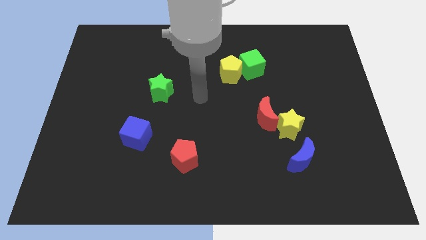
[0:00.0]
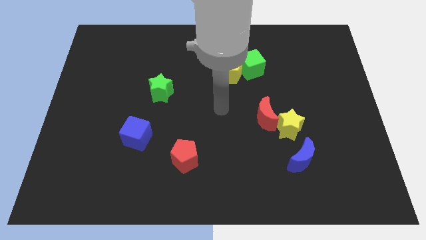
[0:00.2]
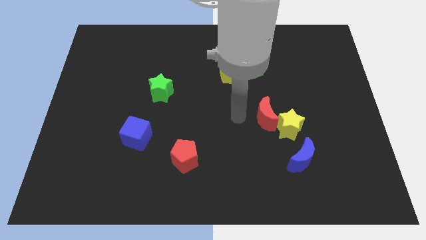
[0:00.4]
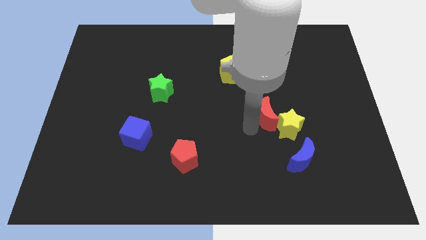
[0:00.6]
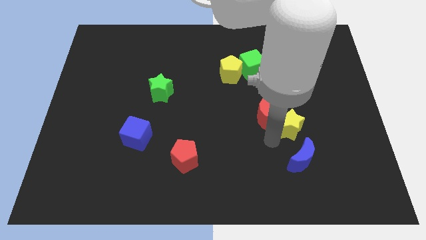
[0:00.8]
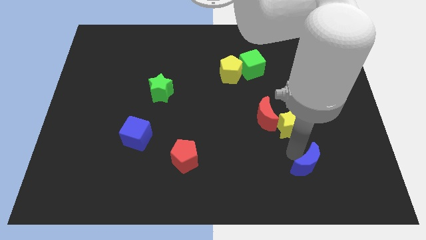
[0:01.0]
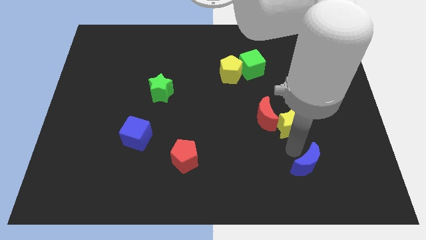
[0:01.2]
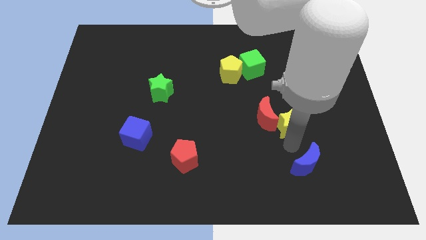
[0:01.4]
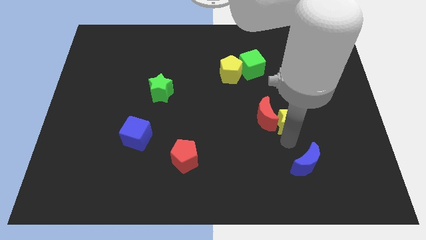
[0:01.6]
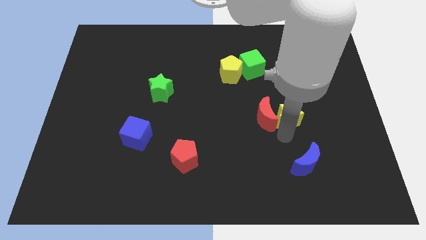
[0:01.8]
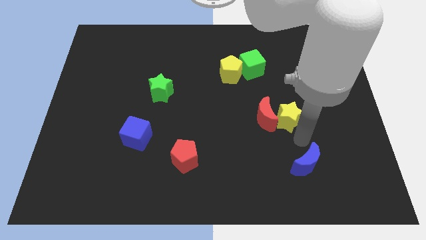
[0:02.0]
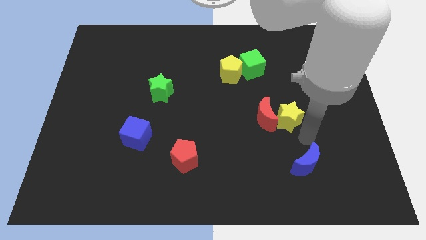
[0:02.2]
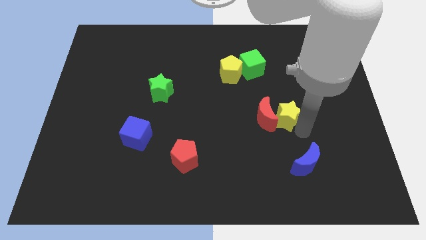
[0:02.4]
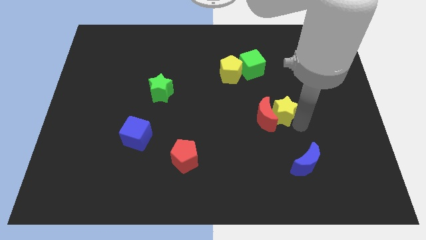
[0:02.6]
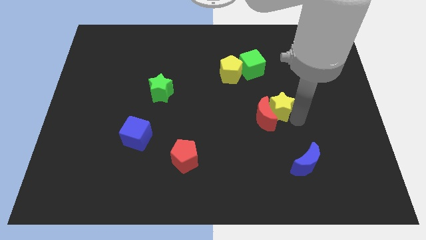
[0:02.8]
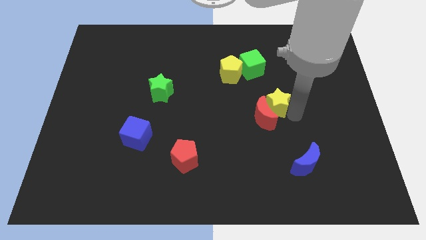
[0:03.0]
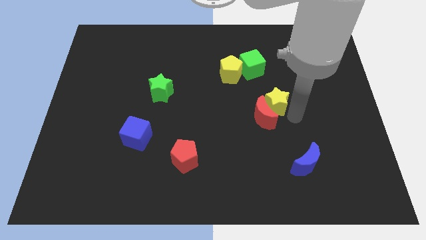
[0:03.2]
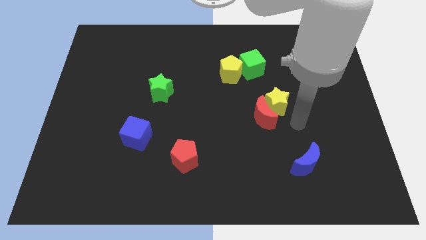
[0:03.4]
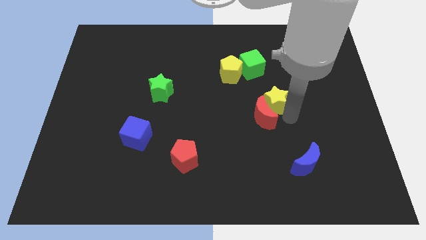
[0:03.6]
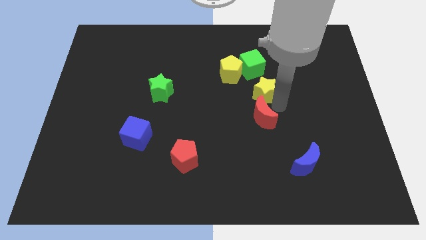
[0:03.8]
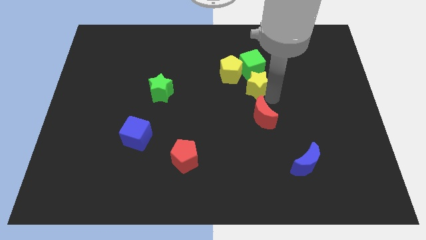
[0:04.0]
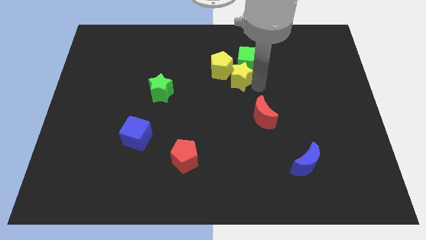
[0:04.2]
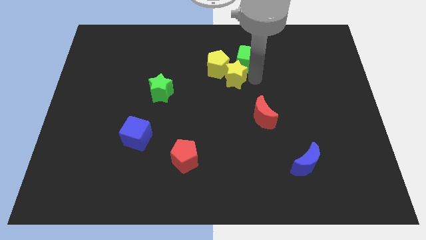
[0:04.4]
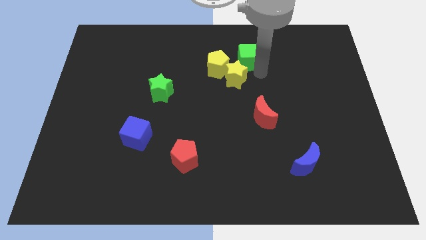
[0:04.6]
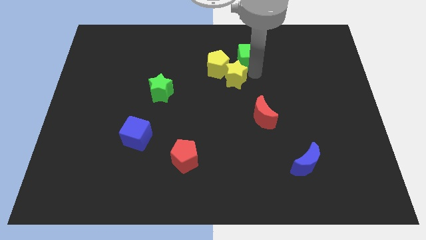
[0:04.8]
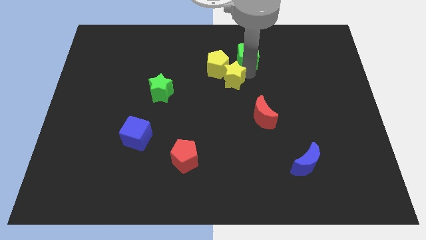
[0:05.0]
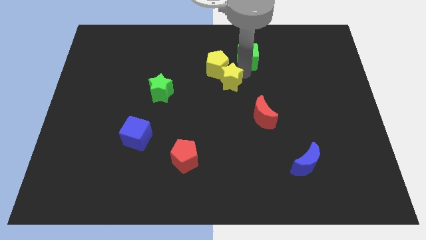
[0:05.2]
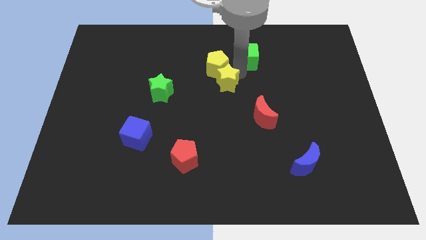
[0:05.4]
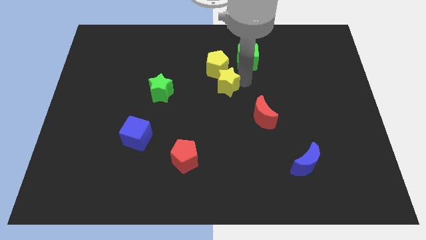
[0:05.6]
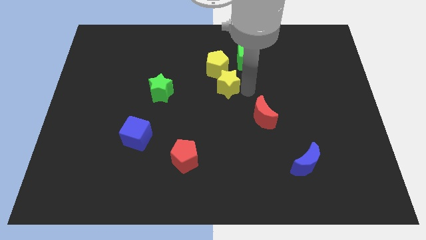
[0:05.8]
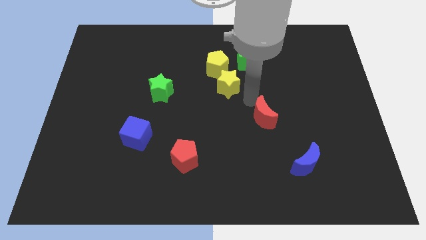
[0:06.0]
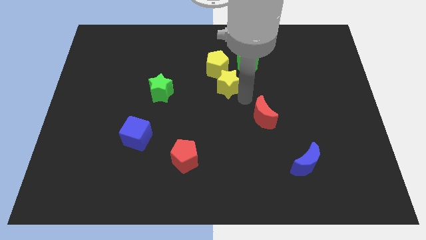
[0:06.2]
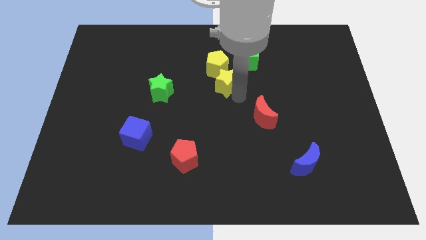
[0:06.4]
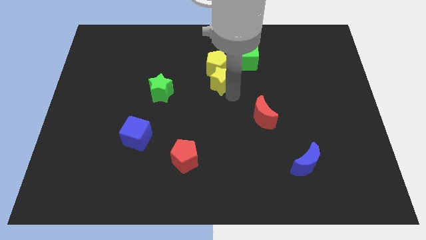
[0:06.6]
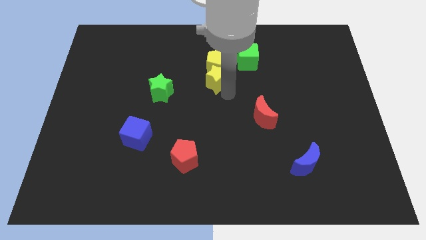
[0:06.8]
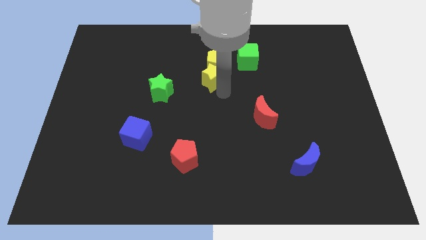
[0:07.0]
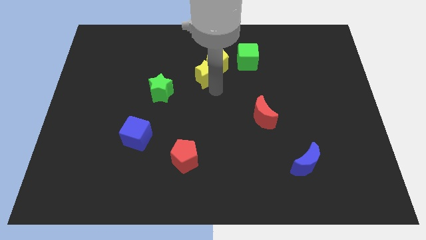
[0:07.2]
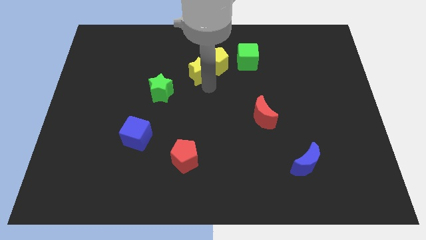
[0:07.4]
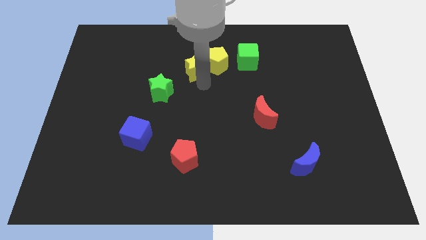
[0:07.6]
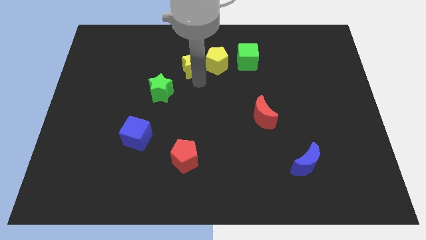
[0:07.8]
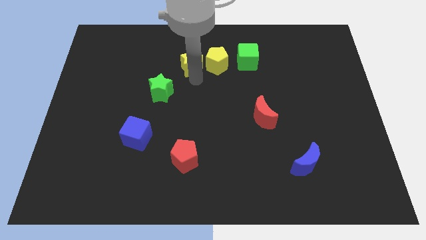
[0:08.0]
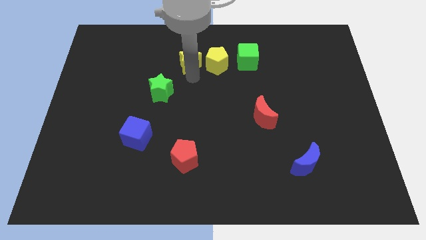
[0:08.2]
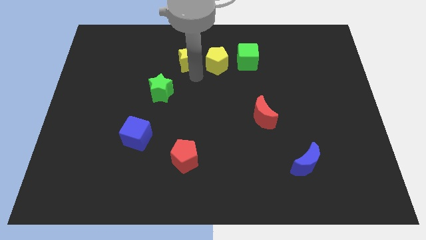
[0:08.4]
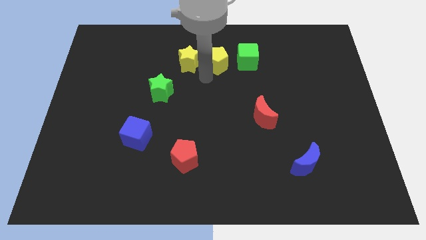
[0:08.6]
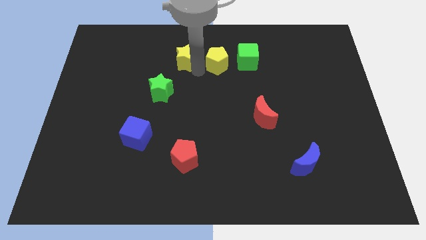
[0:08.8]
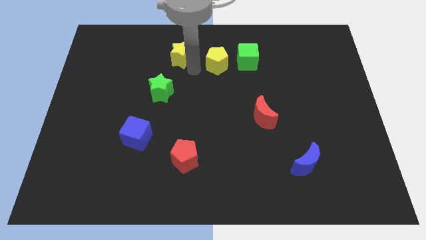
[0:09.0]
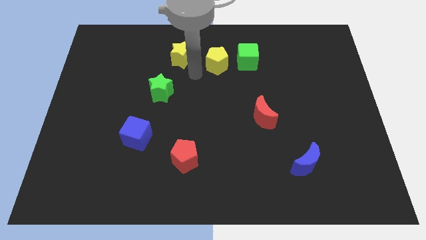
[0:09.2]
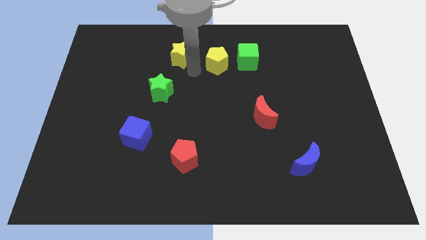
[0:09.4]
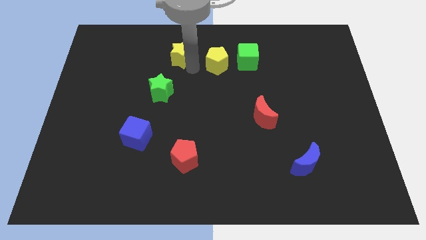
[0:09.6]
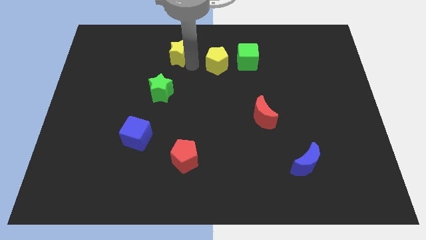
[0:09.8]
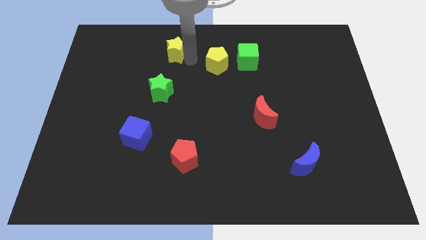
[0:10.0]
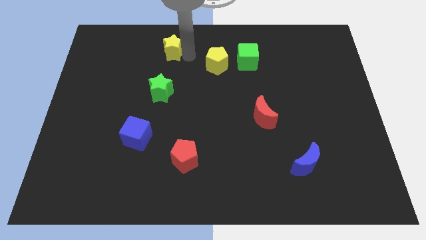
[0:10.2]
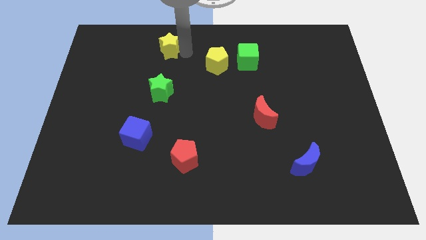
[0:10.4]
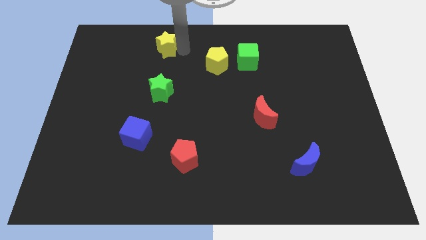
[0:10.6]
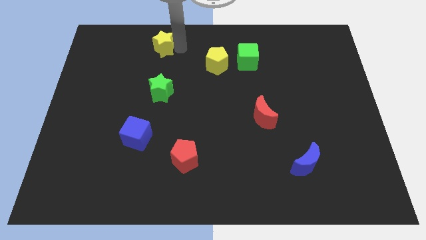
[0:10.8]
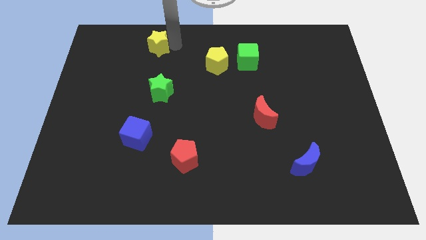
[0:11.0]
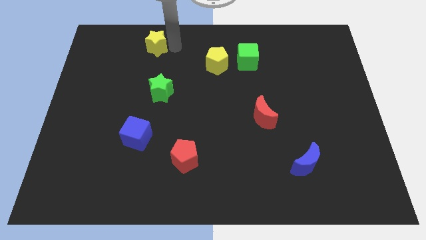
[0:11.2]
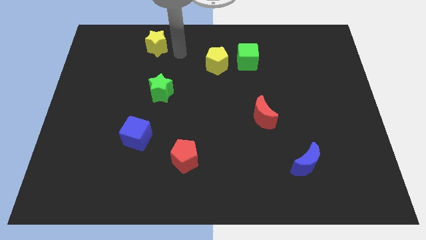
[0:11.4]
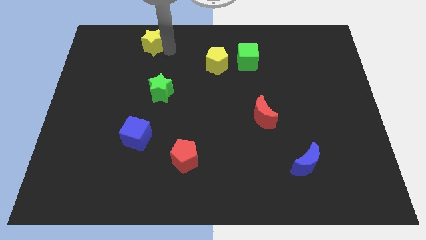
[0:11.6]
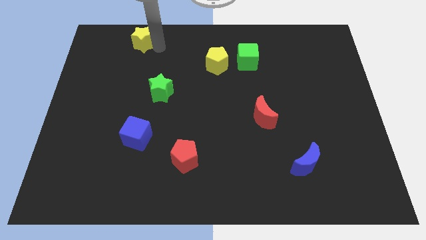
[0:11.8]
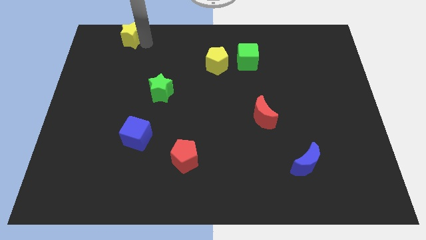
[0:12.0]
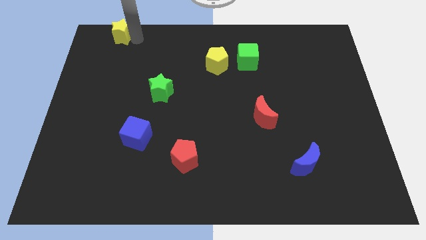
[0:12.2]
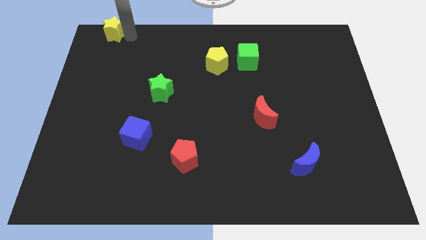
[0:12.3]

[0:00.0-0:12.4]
put the yellow star to the upper left corner
